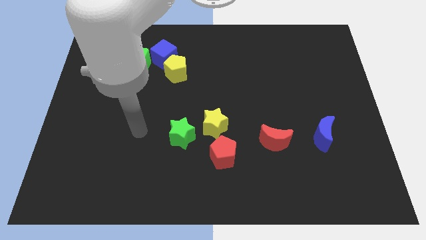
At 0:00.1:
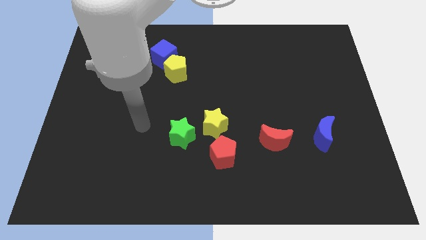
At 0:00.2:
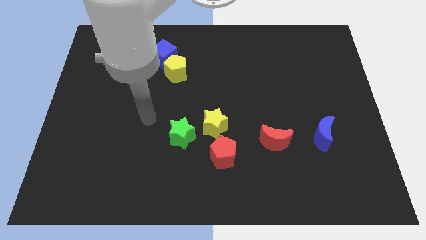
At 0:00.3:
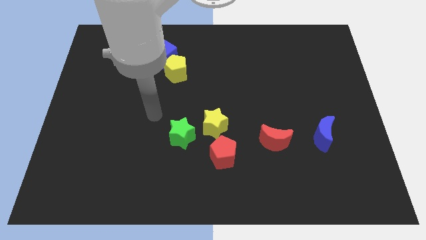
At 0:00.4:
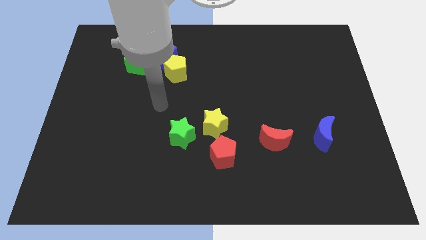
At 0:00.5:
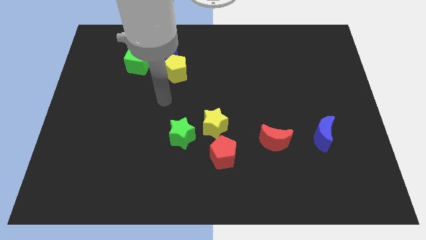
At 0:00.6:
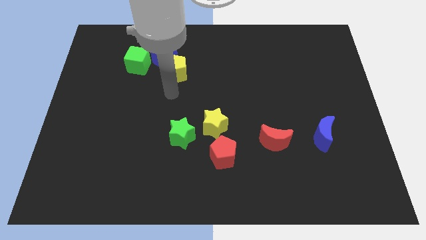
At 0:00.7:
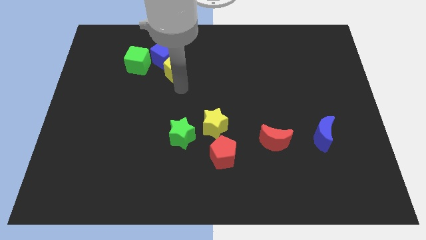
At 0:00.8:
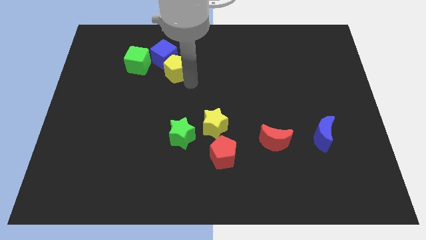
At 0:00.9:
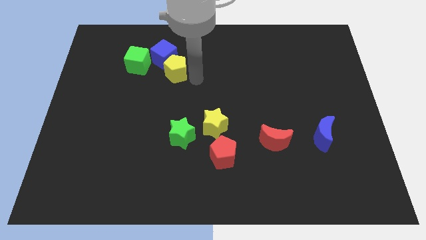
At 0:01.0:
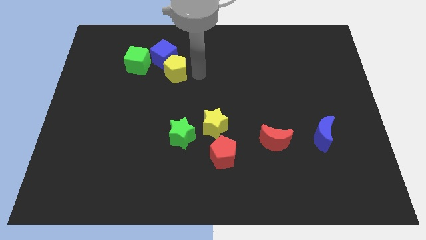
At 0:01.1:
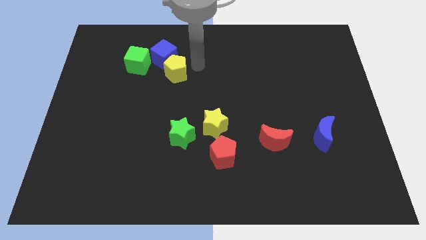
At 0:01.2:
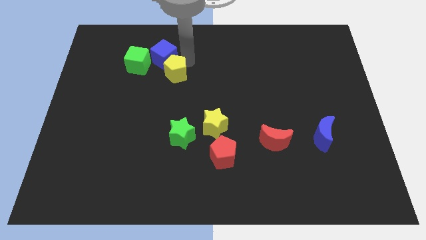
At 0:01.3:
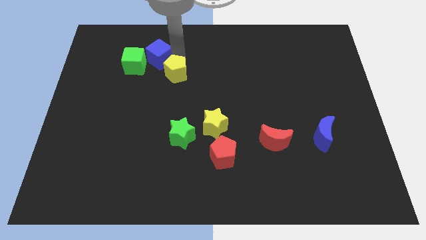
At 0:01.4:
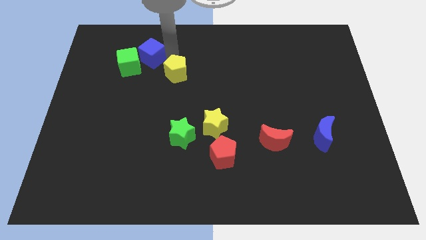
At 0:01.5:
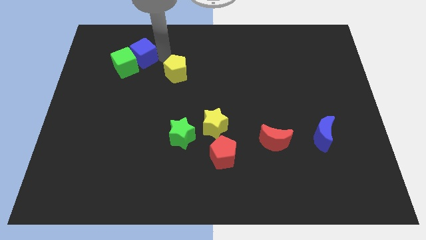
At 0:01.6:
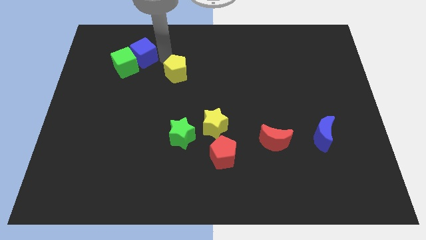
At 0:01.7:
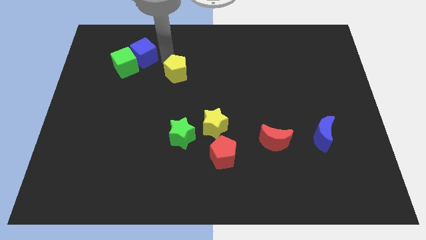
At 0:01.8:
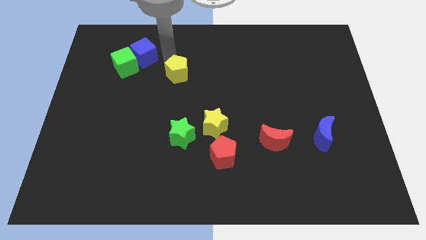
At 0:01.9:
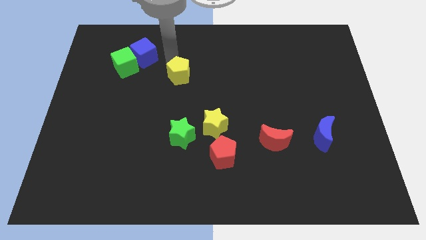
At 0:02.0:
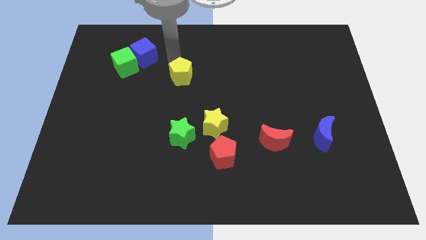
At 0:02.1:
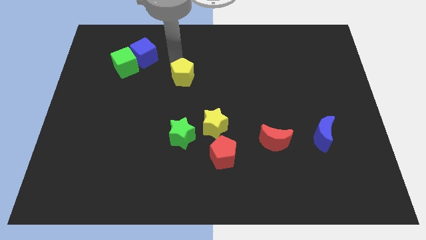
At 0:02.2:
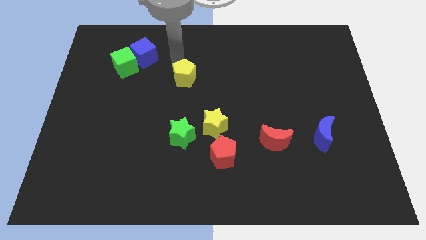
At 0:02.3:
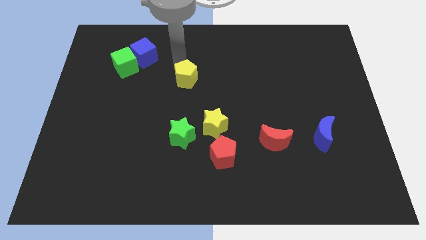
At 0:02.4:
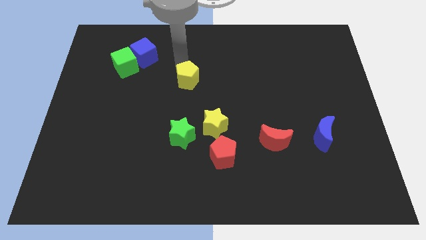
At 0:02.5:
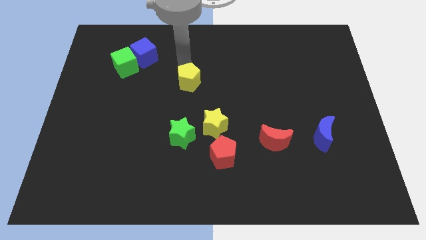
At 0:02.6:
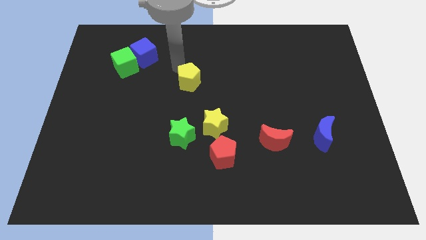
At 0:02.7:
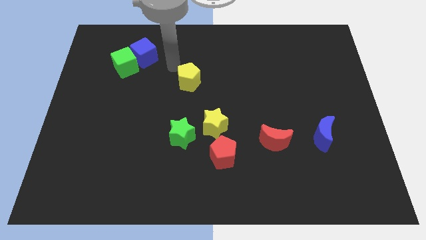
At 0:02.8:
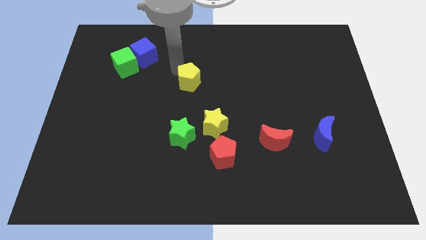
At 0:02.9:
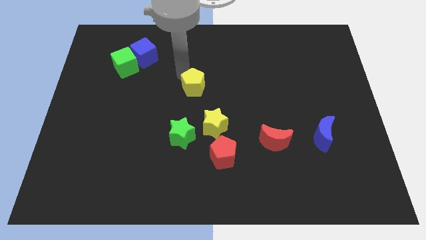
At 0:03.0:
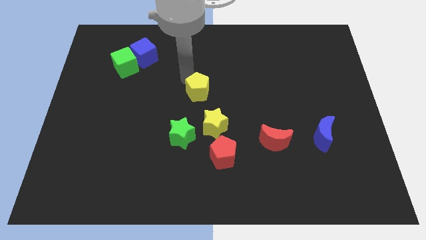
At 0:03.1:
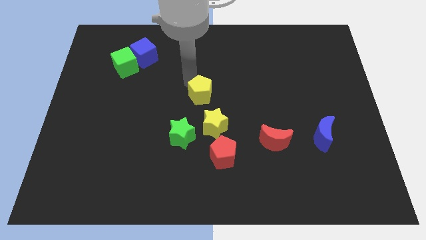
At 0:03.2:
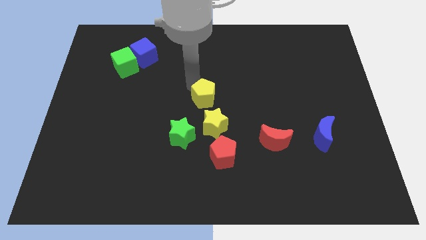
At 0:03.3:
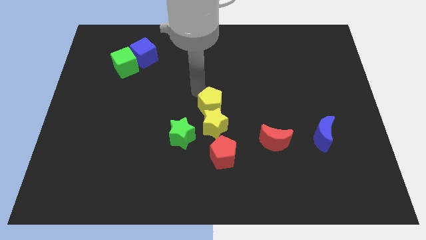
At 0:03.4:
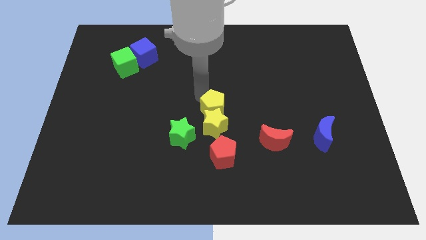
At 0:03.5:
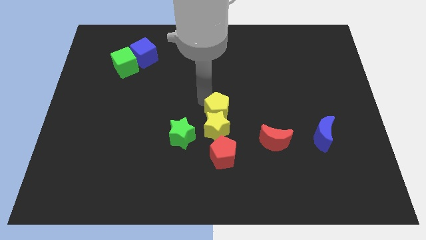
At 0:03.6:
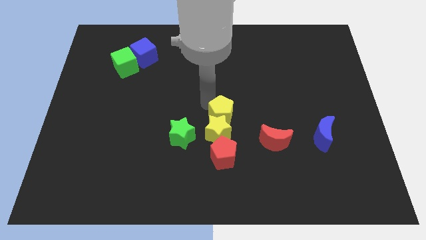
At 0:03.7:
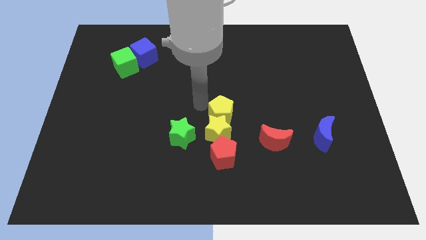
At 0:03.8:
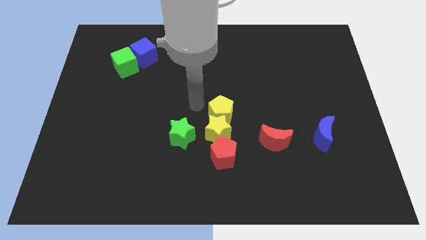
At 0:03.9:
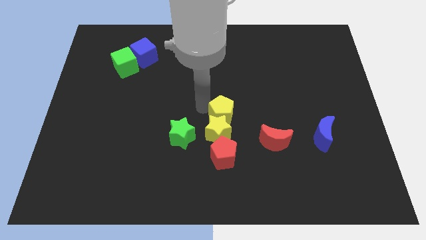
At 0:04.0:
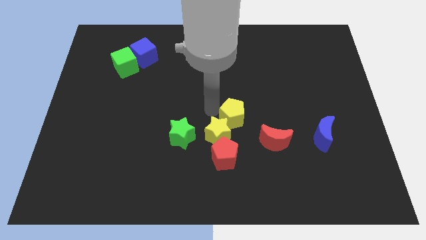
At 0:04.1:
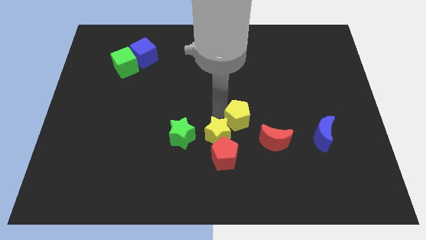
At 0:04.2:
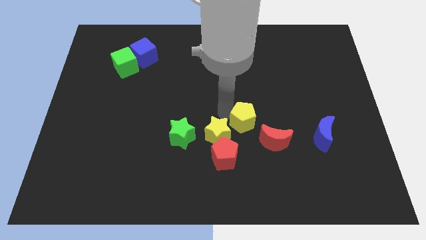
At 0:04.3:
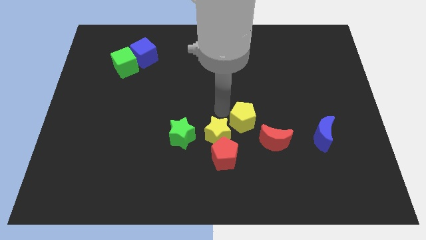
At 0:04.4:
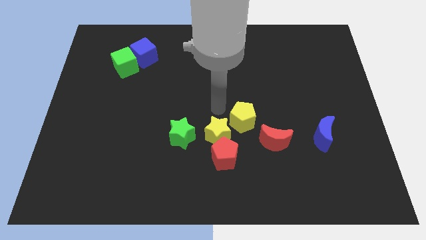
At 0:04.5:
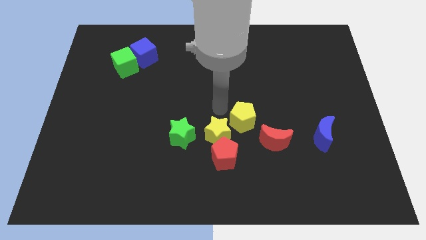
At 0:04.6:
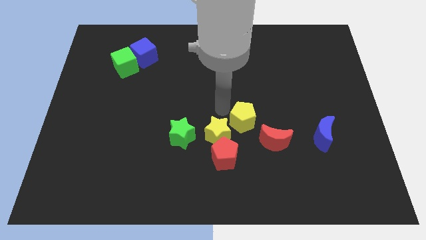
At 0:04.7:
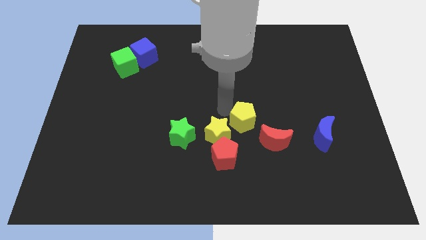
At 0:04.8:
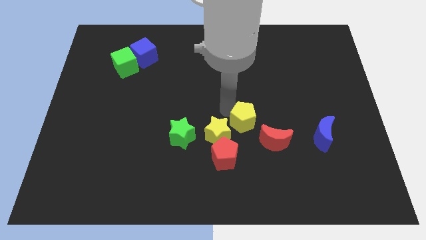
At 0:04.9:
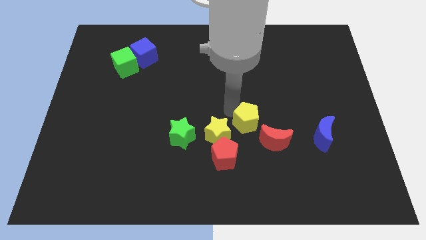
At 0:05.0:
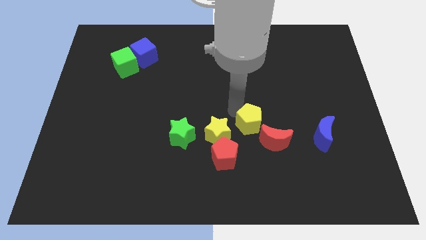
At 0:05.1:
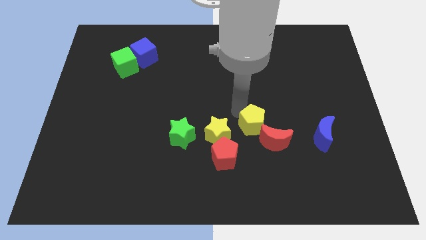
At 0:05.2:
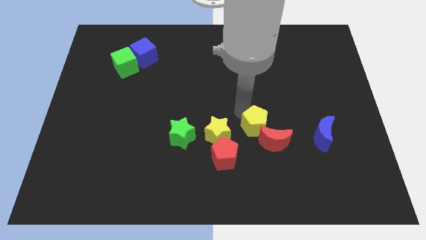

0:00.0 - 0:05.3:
move the yellow pentagon next to the red moon

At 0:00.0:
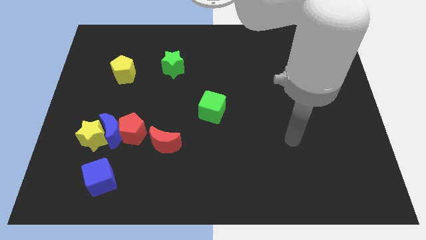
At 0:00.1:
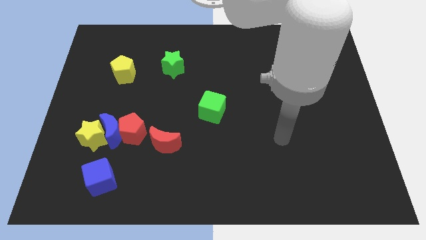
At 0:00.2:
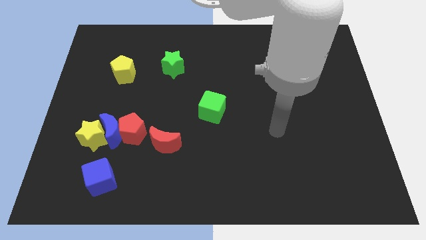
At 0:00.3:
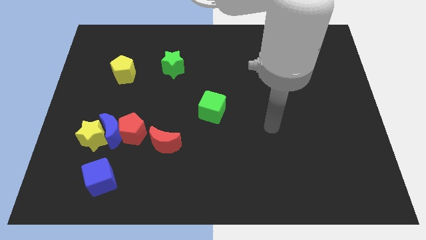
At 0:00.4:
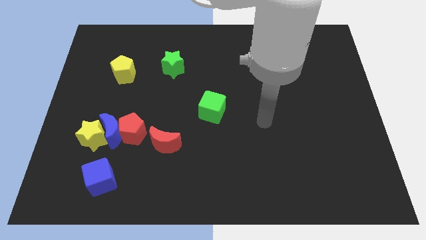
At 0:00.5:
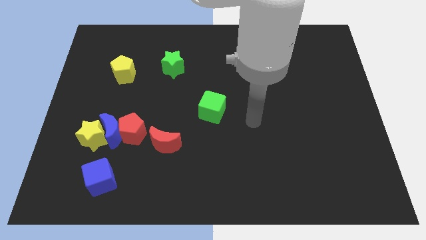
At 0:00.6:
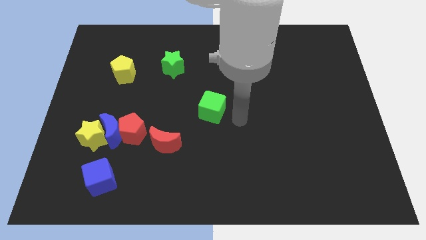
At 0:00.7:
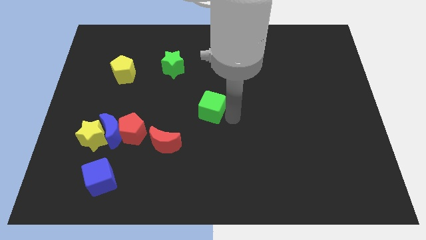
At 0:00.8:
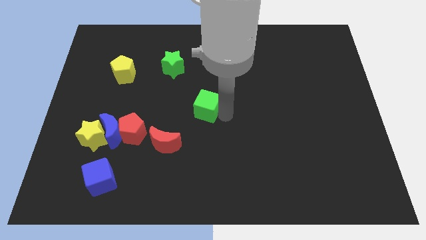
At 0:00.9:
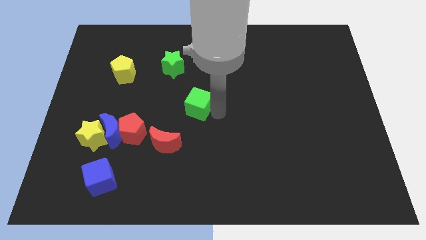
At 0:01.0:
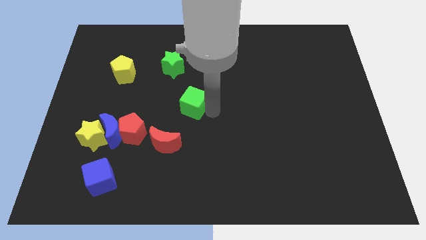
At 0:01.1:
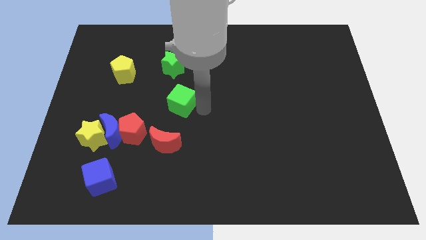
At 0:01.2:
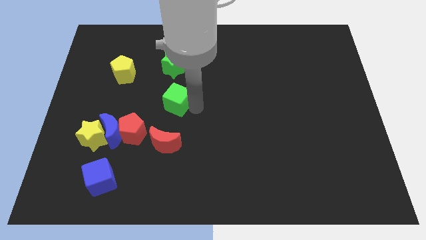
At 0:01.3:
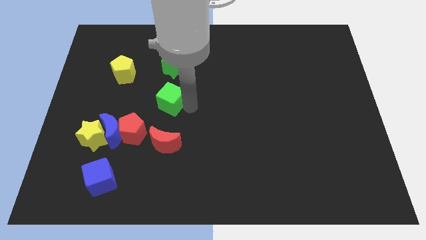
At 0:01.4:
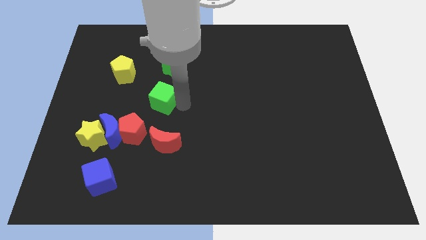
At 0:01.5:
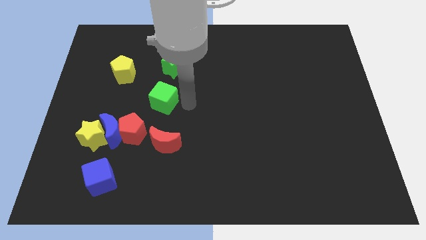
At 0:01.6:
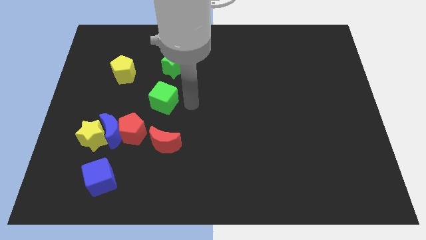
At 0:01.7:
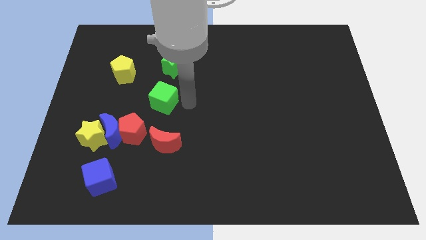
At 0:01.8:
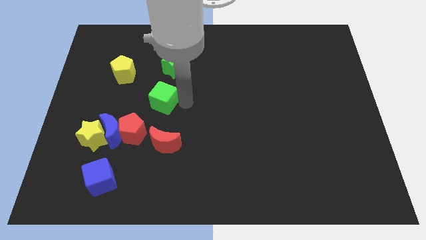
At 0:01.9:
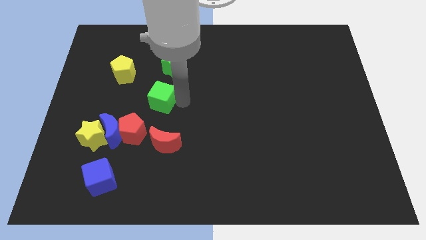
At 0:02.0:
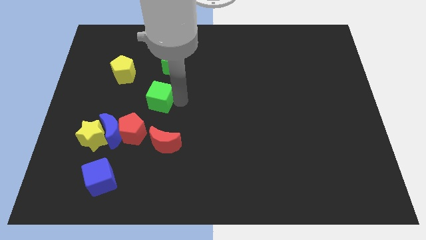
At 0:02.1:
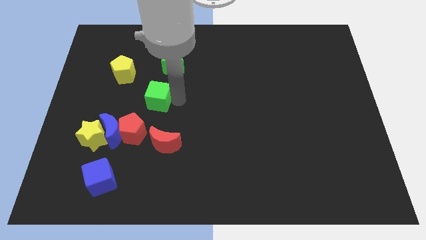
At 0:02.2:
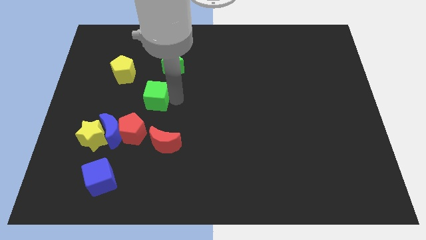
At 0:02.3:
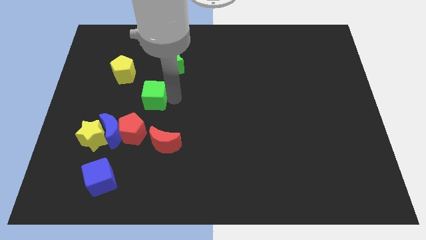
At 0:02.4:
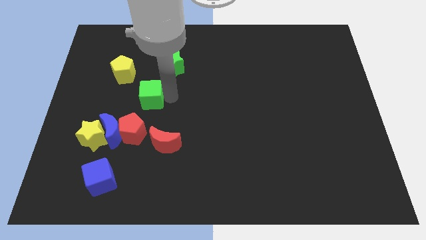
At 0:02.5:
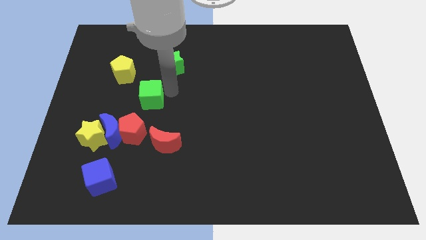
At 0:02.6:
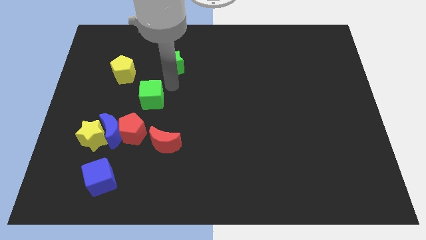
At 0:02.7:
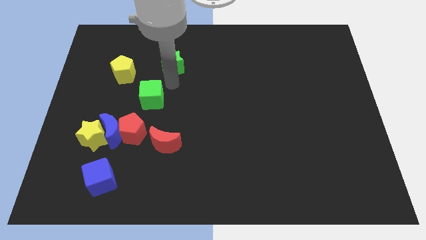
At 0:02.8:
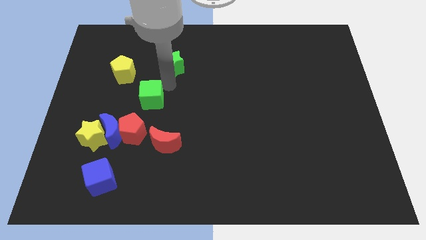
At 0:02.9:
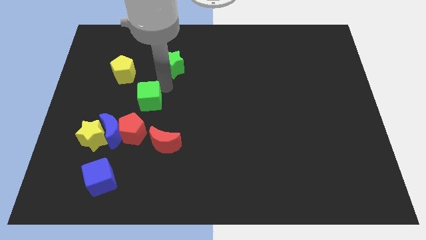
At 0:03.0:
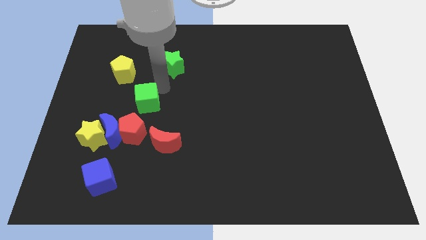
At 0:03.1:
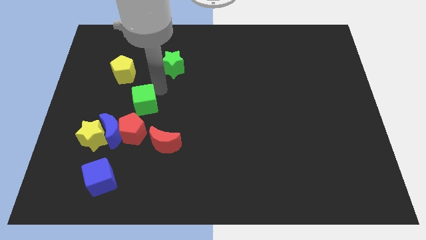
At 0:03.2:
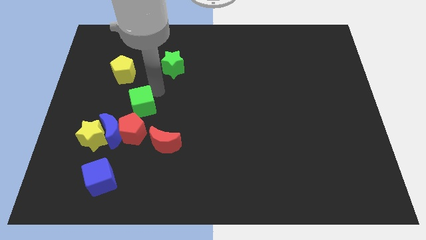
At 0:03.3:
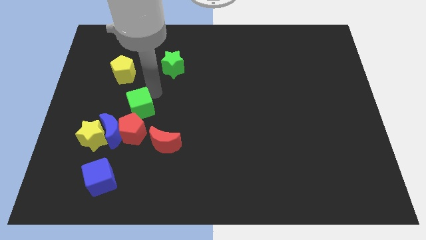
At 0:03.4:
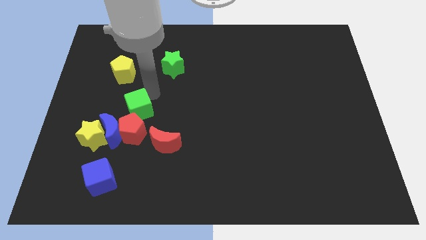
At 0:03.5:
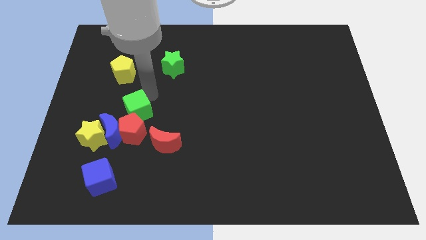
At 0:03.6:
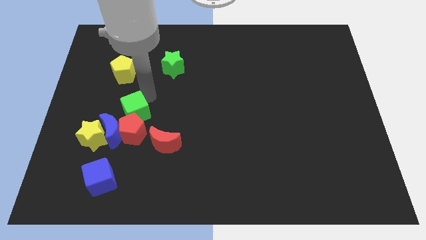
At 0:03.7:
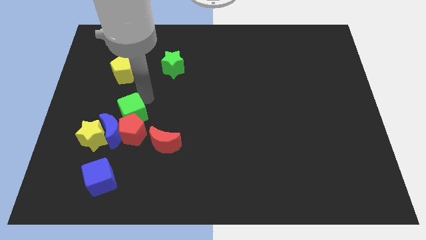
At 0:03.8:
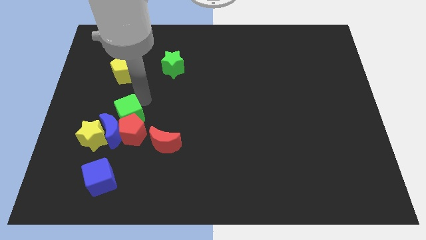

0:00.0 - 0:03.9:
move the green cube close to the blue moon
